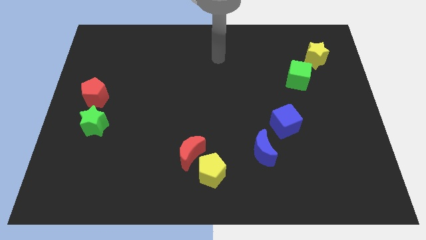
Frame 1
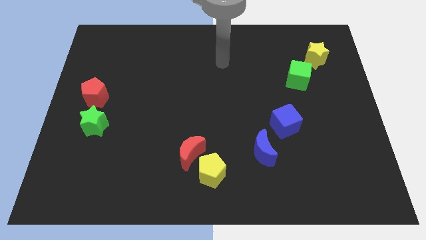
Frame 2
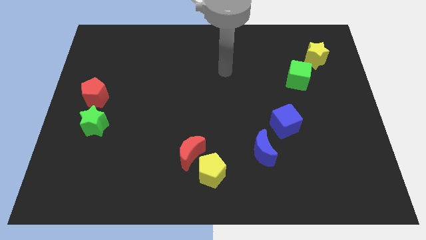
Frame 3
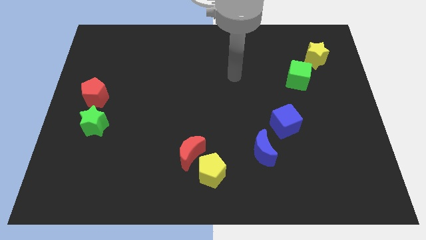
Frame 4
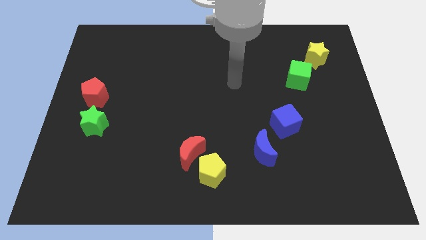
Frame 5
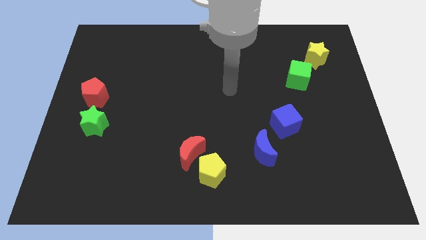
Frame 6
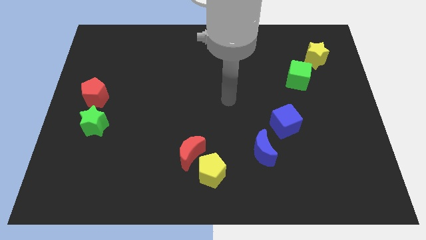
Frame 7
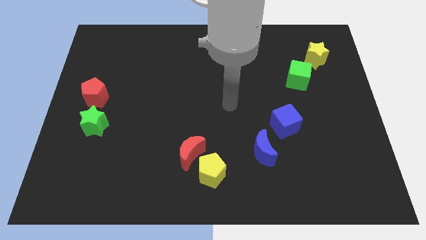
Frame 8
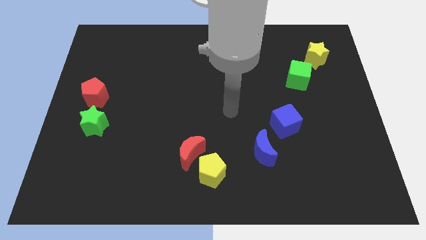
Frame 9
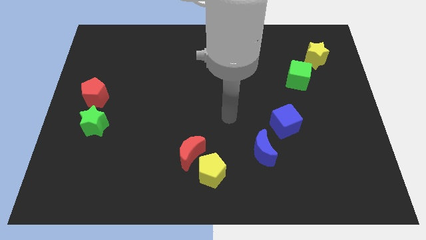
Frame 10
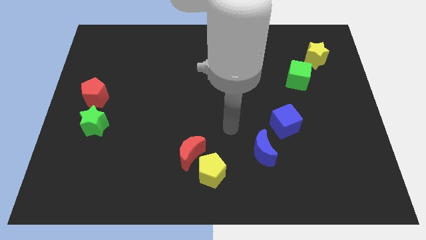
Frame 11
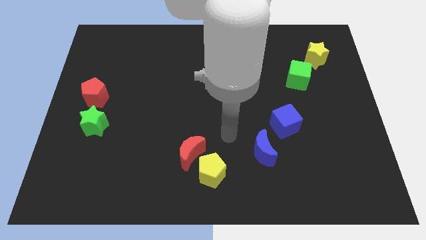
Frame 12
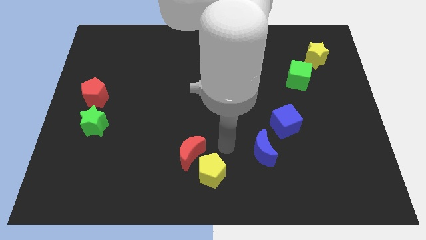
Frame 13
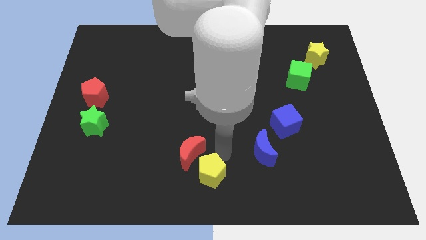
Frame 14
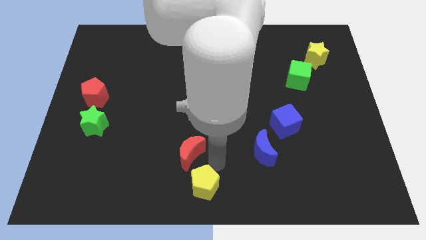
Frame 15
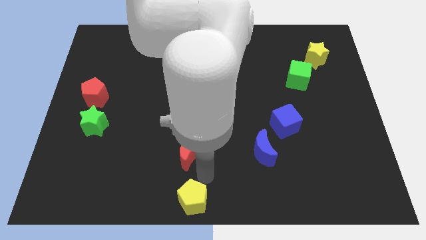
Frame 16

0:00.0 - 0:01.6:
move the red moon away from the yellow pentagon

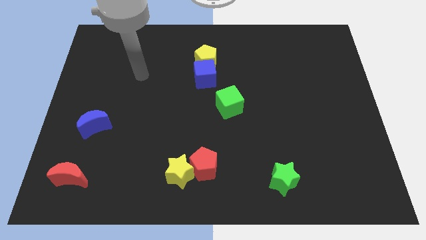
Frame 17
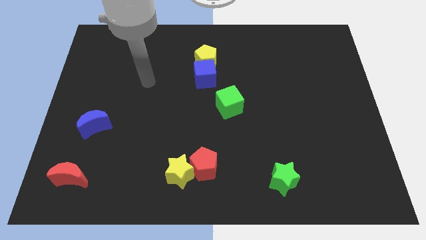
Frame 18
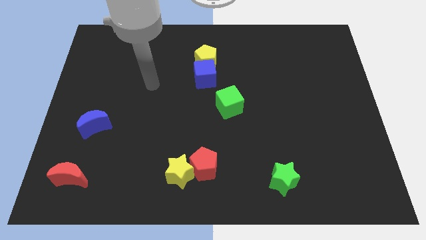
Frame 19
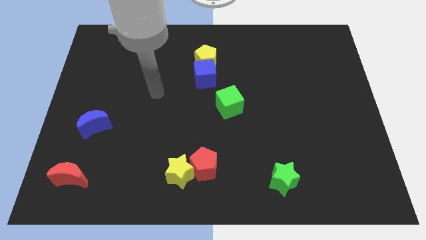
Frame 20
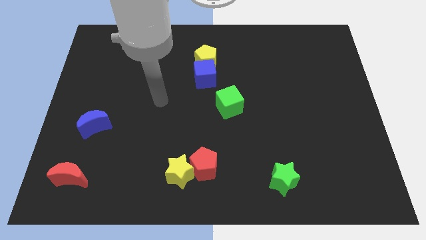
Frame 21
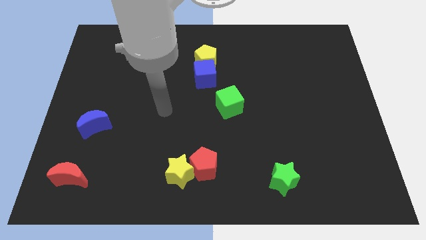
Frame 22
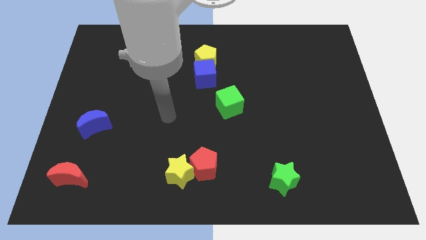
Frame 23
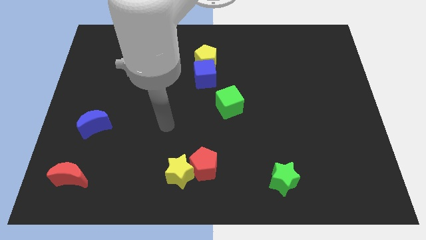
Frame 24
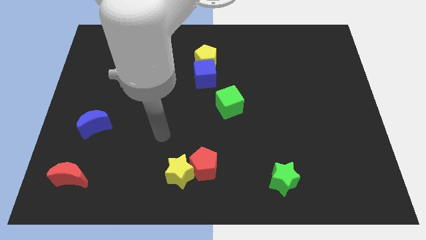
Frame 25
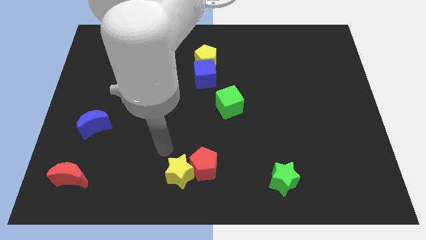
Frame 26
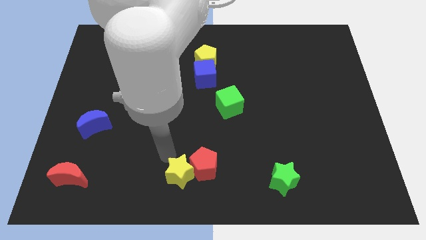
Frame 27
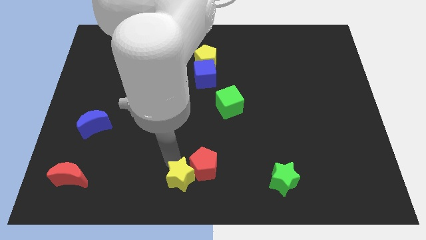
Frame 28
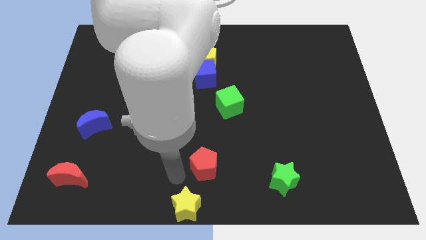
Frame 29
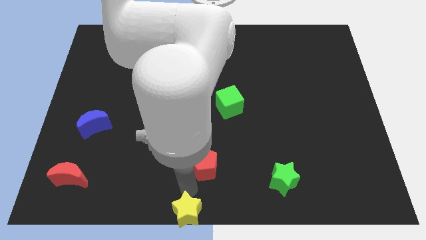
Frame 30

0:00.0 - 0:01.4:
pull the red pentagon apart from the yellow star

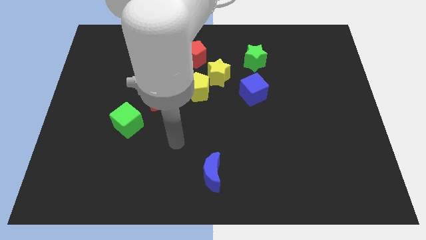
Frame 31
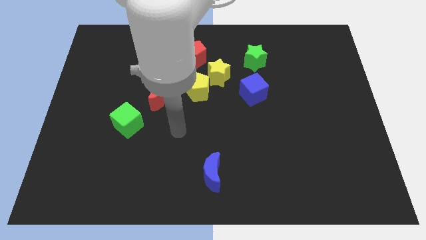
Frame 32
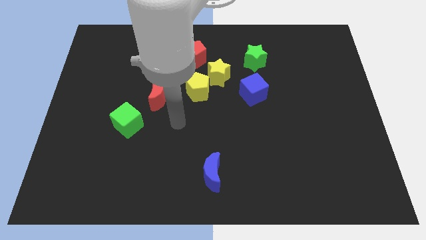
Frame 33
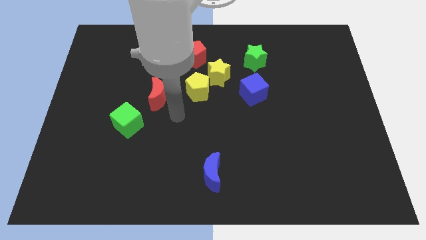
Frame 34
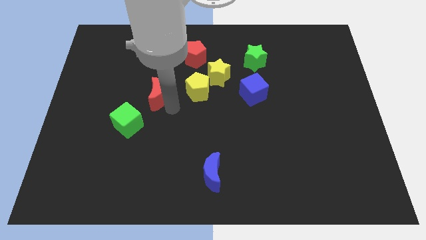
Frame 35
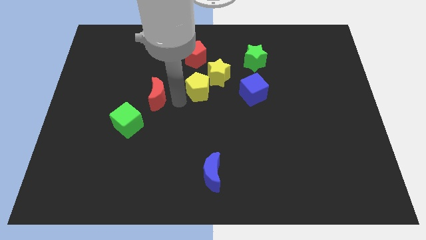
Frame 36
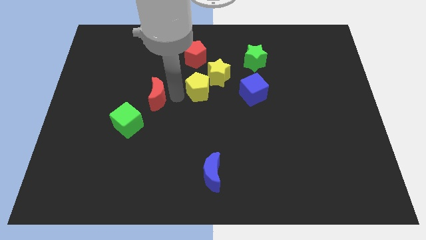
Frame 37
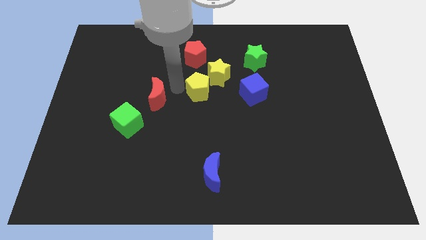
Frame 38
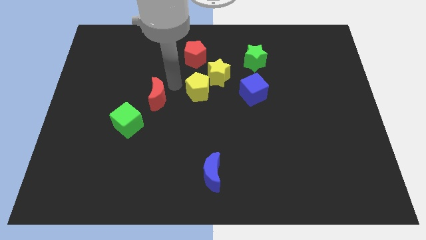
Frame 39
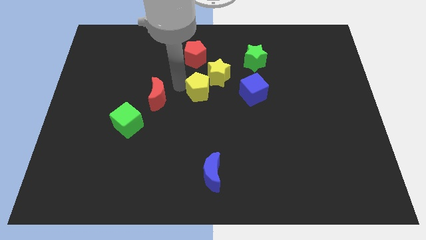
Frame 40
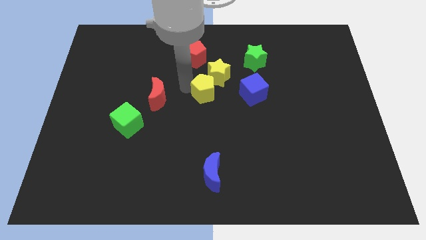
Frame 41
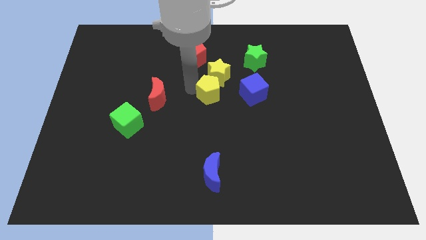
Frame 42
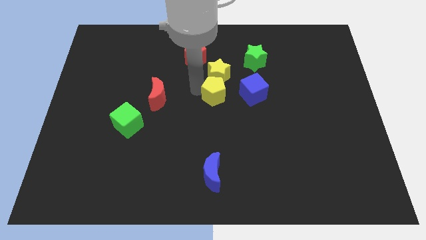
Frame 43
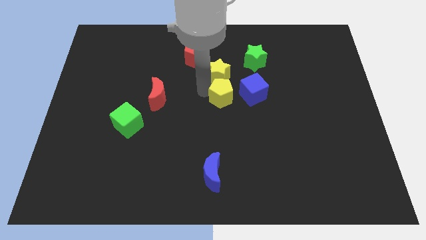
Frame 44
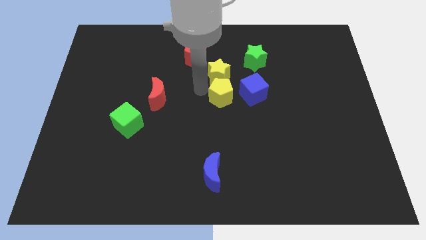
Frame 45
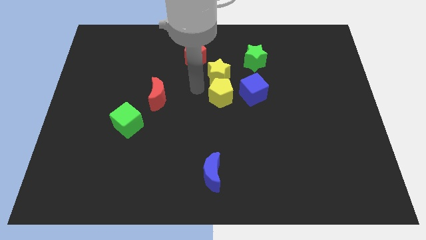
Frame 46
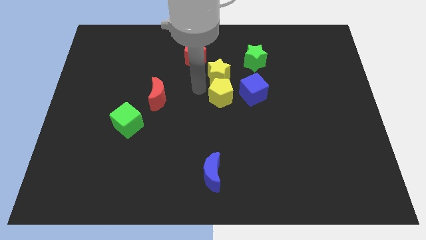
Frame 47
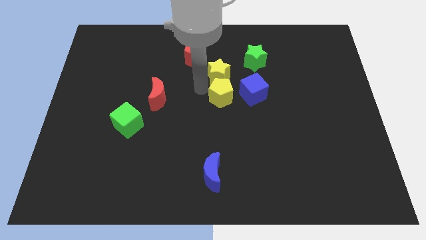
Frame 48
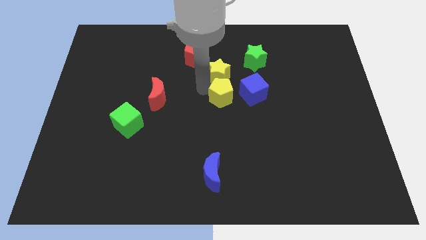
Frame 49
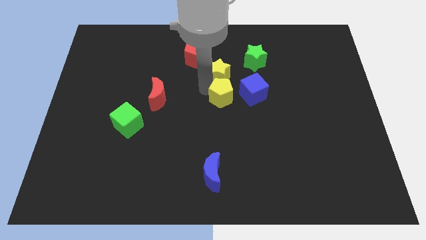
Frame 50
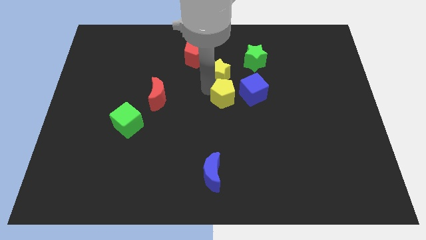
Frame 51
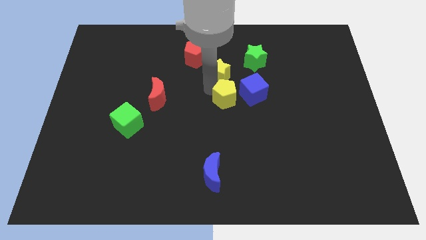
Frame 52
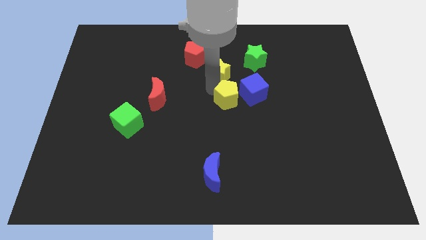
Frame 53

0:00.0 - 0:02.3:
pull the yellow pentagon apart from the yellow star and red moon

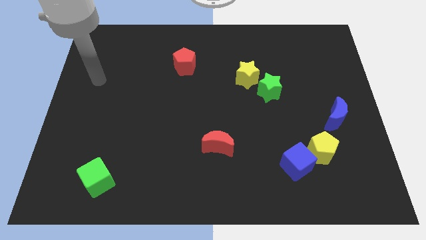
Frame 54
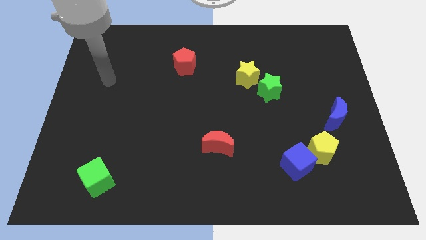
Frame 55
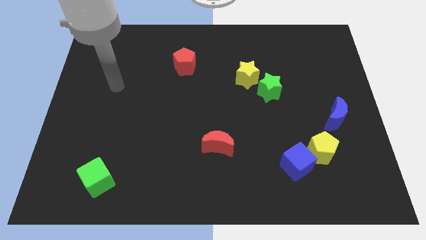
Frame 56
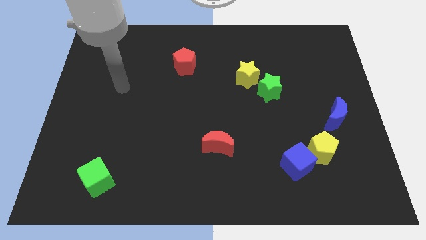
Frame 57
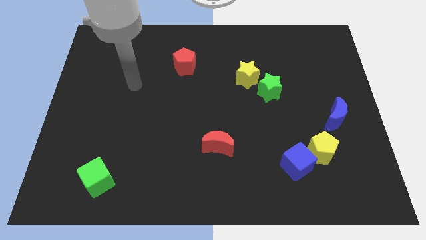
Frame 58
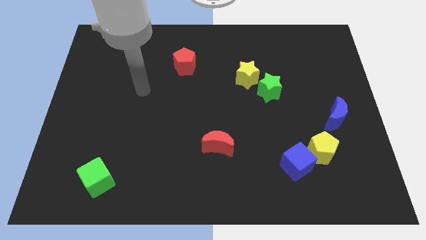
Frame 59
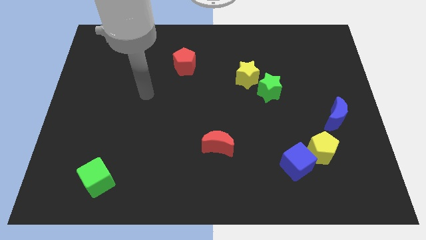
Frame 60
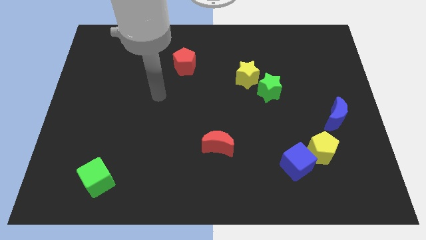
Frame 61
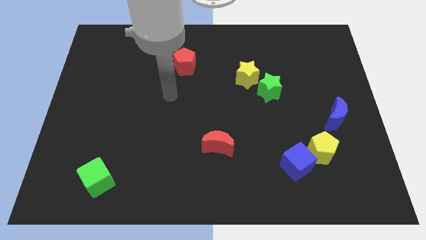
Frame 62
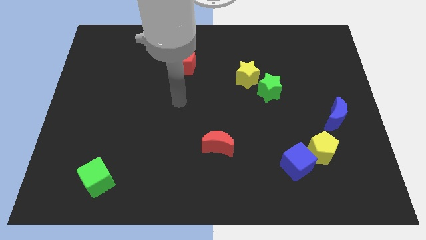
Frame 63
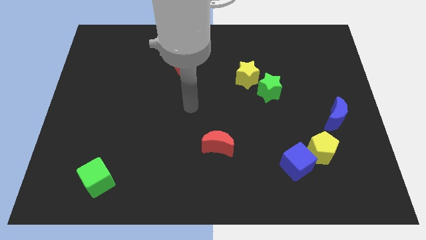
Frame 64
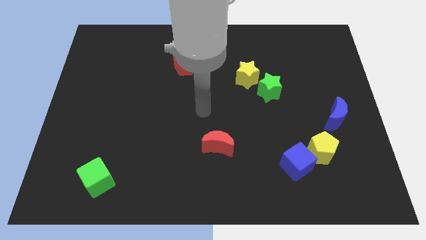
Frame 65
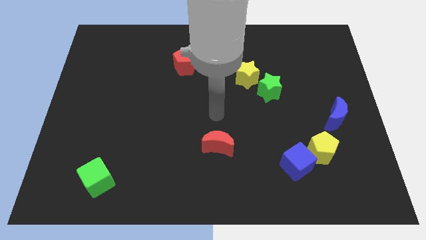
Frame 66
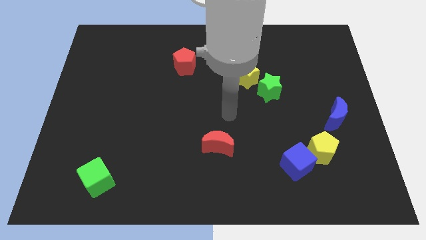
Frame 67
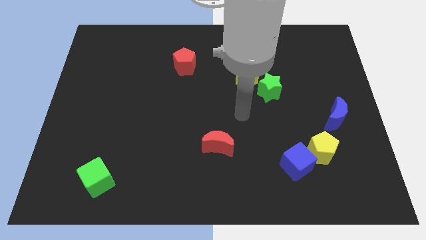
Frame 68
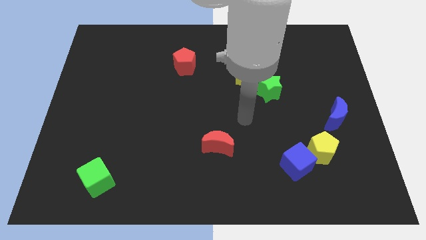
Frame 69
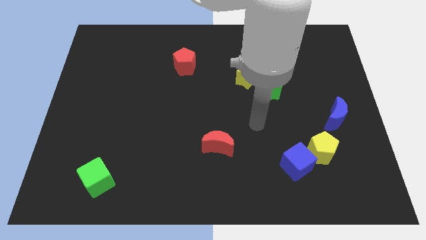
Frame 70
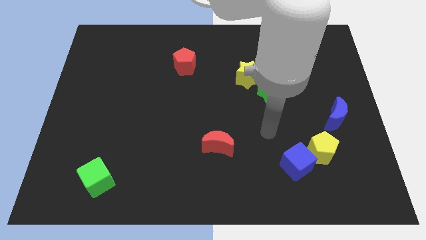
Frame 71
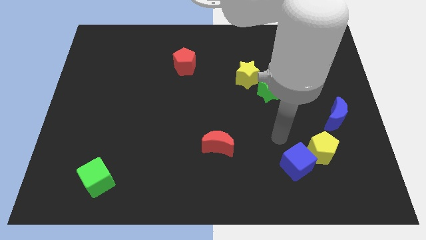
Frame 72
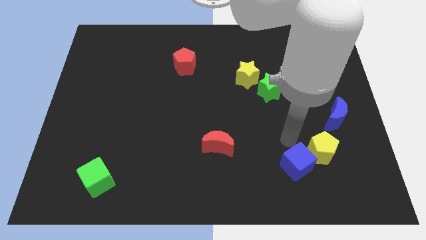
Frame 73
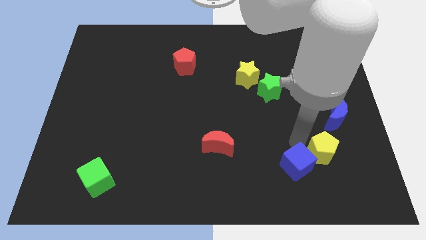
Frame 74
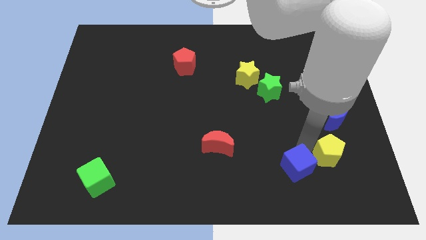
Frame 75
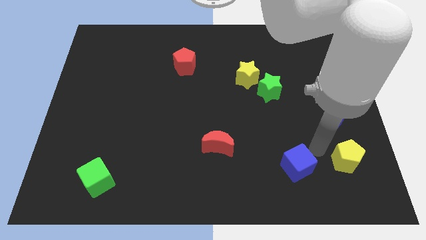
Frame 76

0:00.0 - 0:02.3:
separate the blue cube from the yellow pentagon

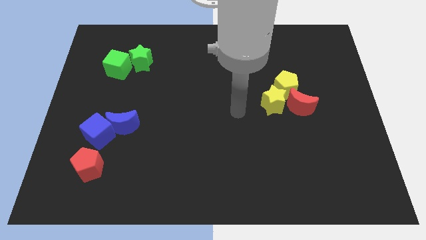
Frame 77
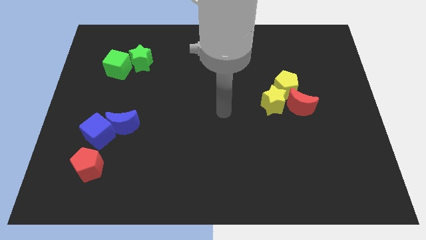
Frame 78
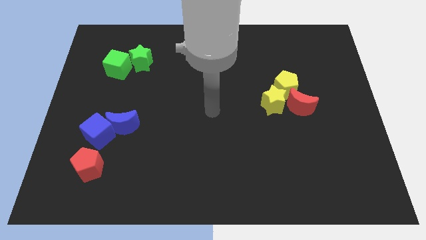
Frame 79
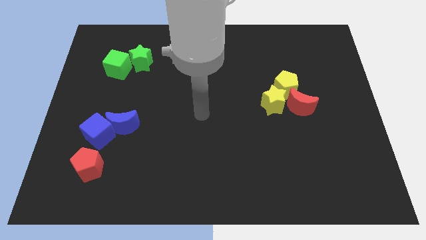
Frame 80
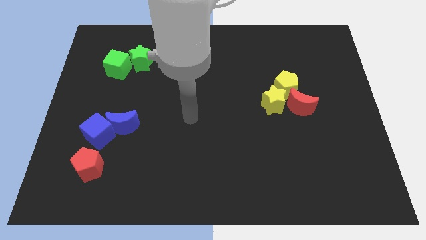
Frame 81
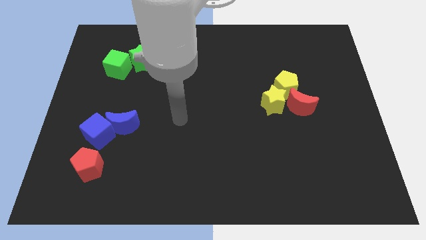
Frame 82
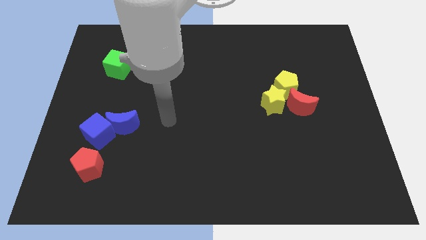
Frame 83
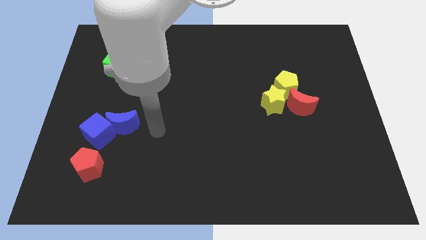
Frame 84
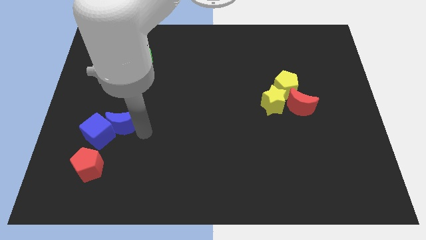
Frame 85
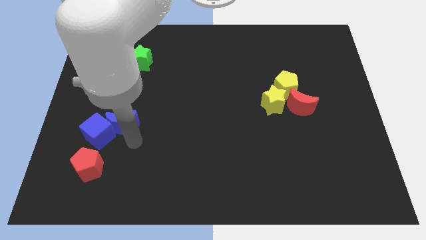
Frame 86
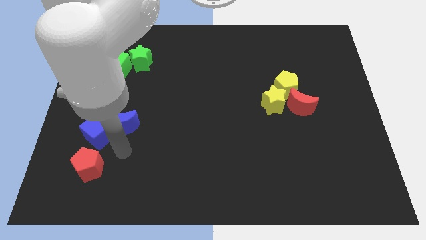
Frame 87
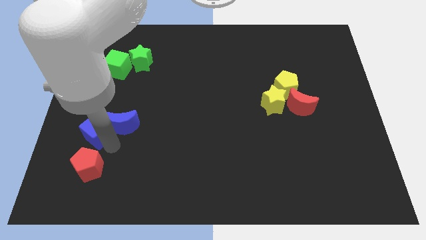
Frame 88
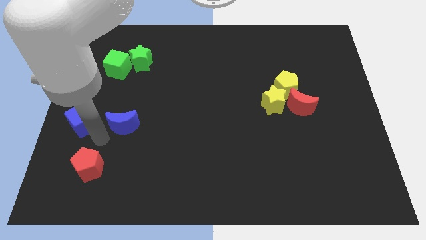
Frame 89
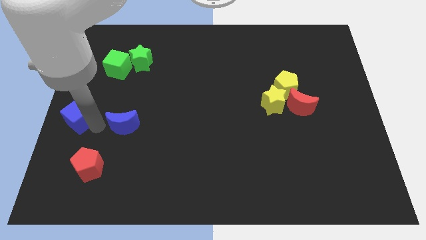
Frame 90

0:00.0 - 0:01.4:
pull the blue moon apart from the blue cube

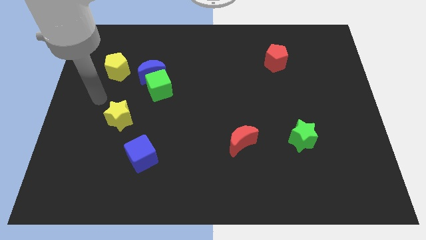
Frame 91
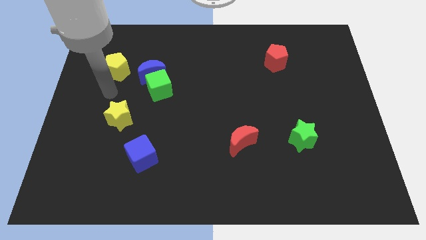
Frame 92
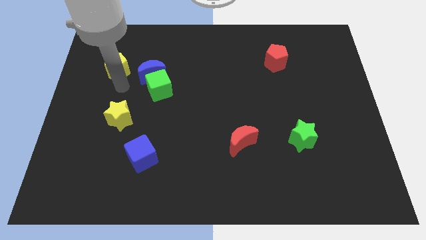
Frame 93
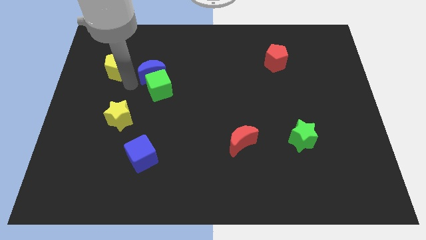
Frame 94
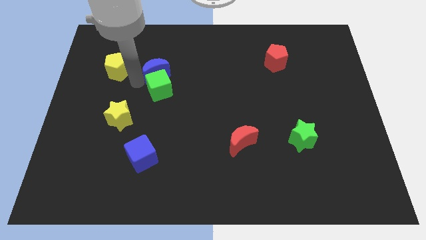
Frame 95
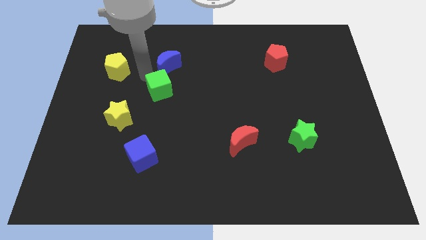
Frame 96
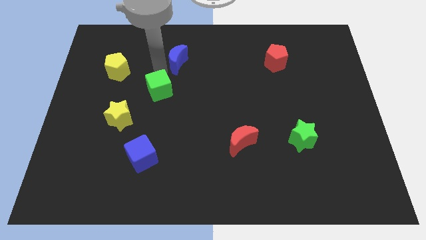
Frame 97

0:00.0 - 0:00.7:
separate the green cube from the blue moon
